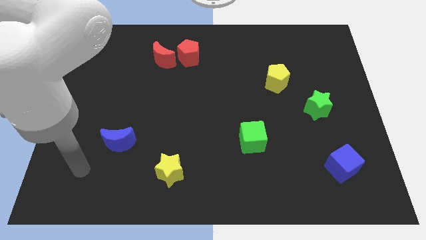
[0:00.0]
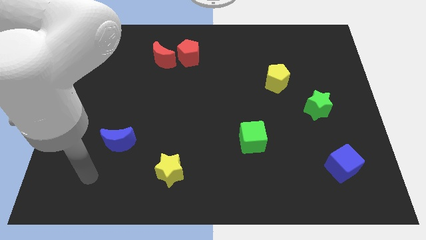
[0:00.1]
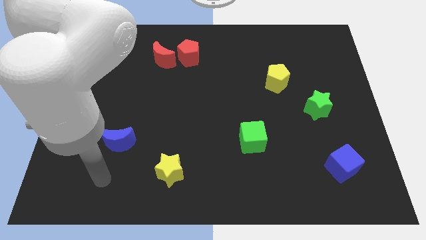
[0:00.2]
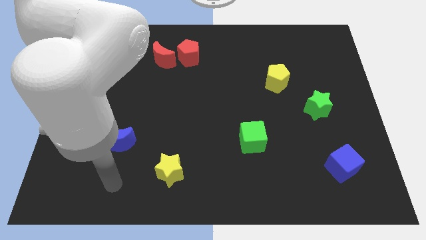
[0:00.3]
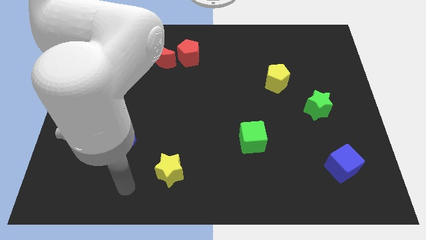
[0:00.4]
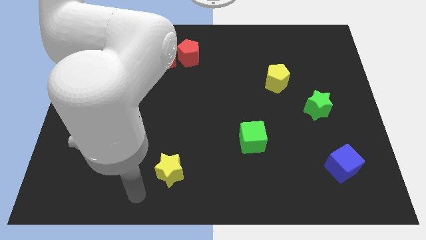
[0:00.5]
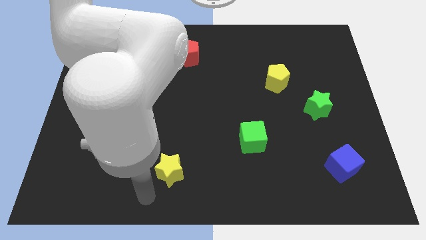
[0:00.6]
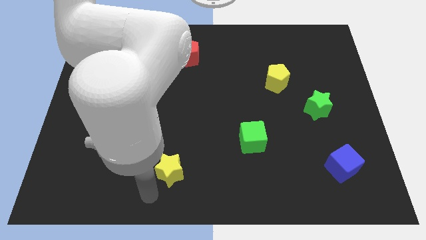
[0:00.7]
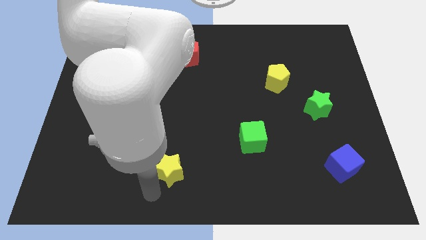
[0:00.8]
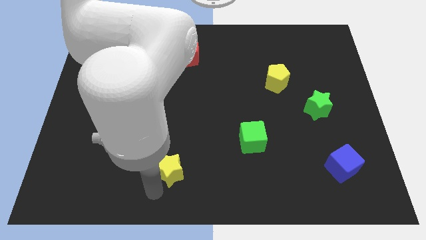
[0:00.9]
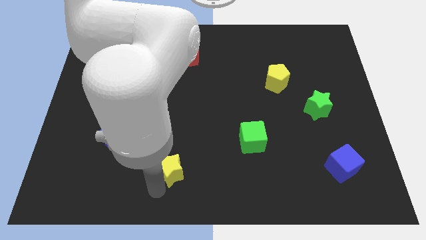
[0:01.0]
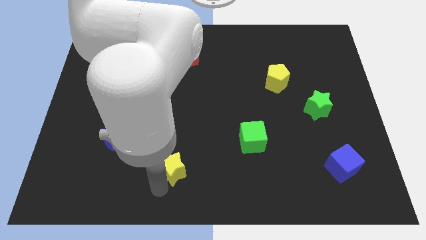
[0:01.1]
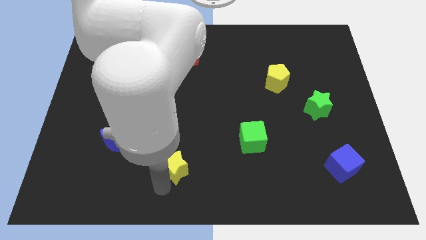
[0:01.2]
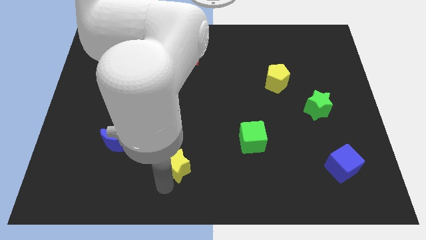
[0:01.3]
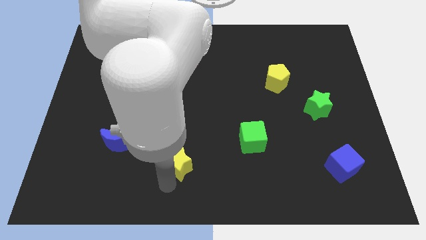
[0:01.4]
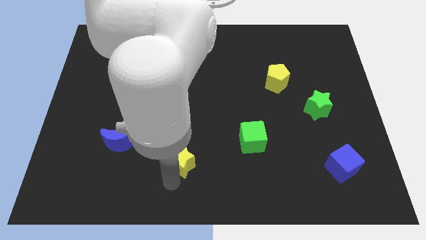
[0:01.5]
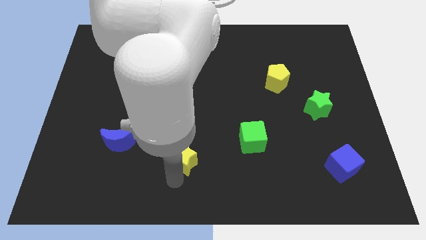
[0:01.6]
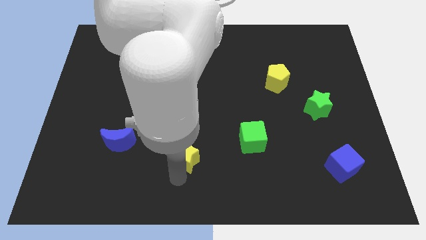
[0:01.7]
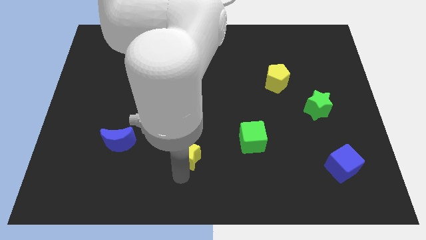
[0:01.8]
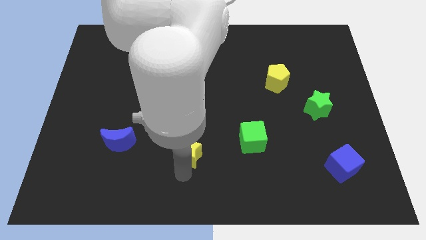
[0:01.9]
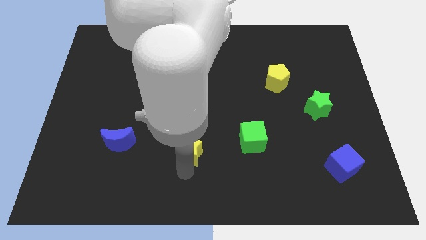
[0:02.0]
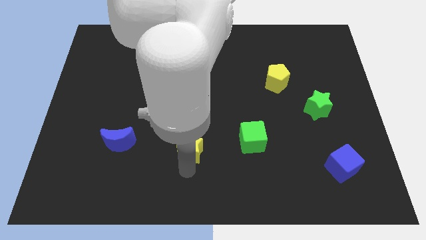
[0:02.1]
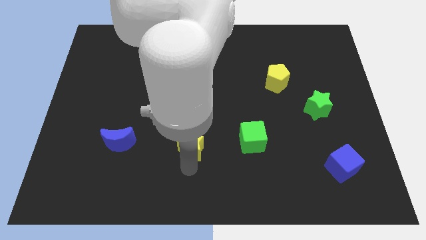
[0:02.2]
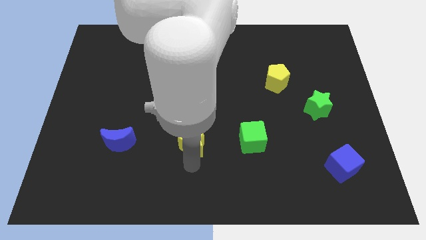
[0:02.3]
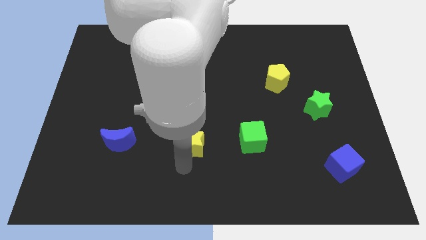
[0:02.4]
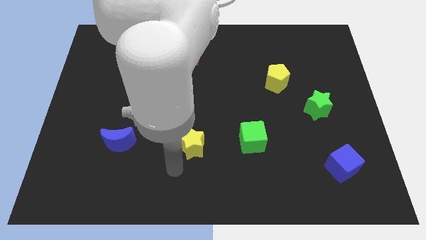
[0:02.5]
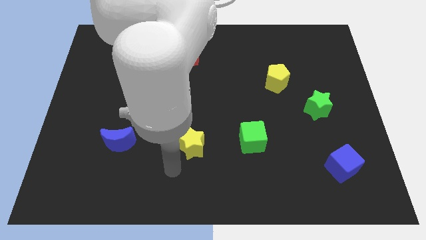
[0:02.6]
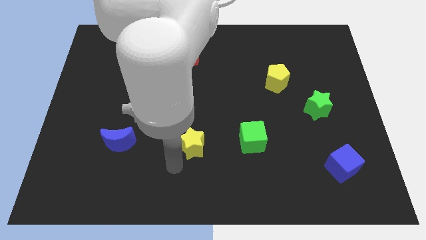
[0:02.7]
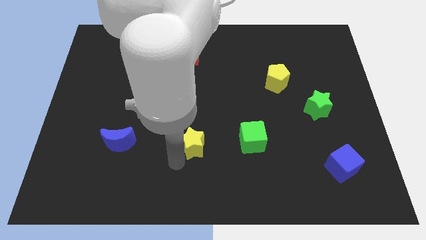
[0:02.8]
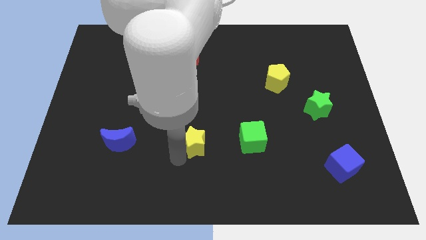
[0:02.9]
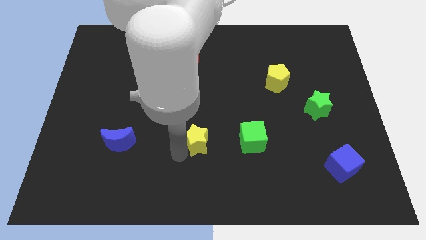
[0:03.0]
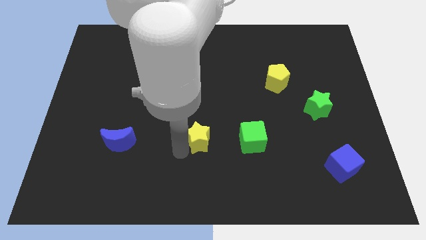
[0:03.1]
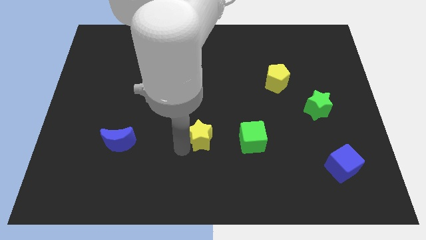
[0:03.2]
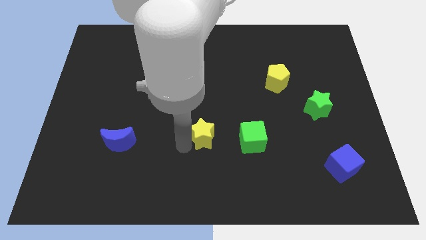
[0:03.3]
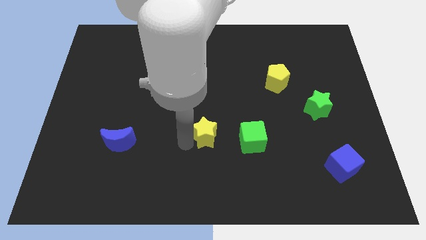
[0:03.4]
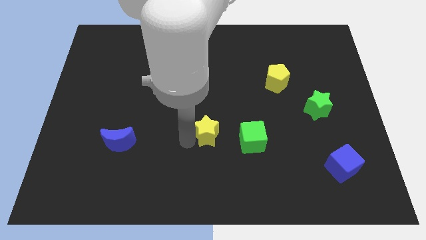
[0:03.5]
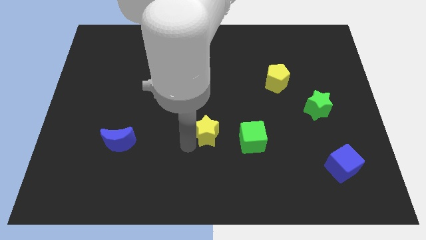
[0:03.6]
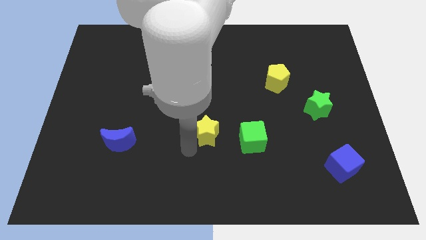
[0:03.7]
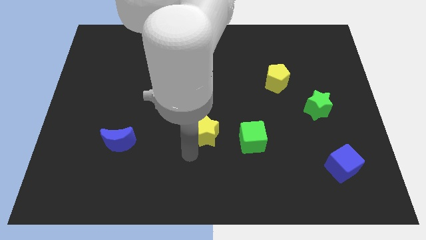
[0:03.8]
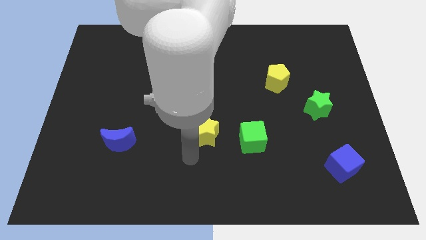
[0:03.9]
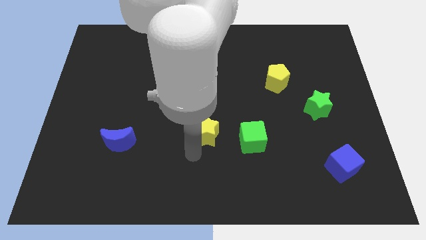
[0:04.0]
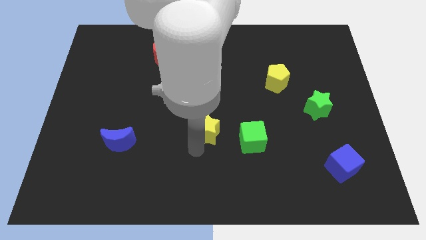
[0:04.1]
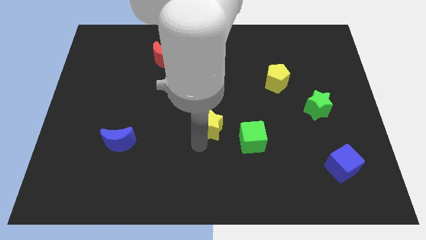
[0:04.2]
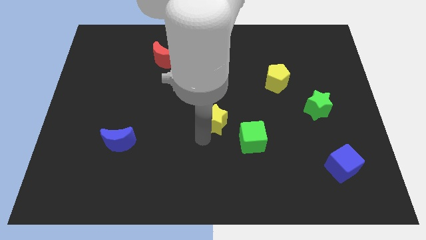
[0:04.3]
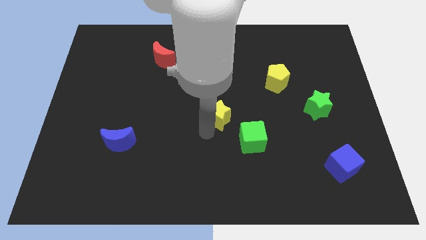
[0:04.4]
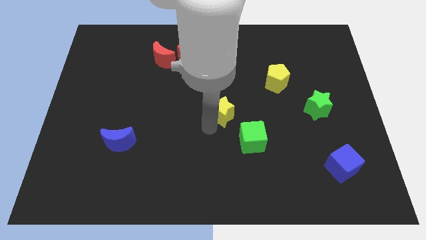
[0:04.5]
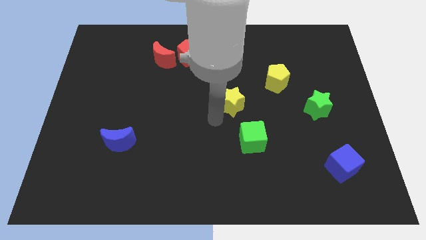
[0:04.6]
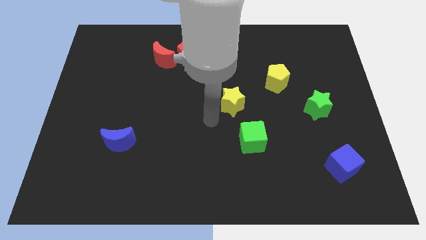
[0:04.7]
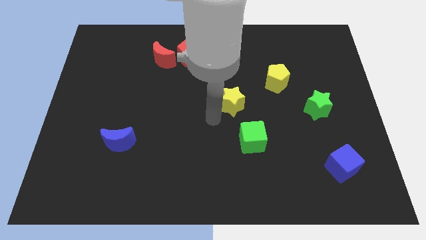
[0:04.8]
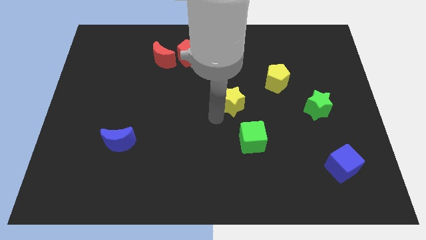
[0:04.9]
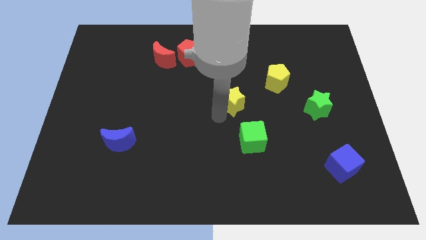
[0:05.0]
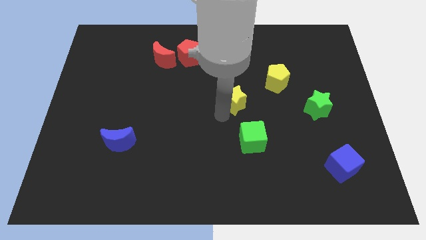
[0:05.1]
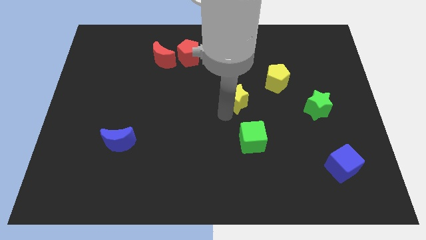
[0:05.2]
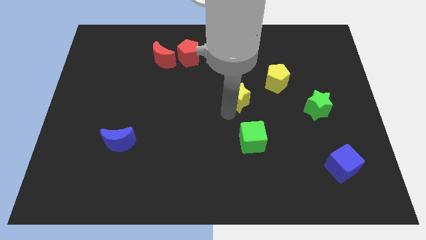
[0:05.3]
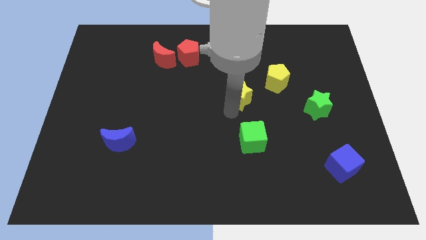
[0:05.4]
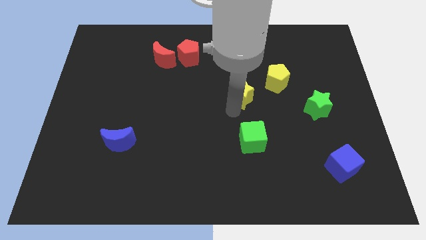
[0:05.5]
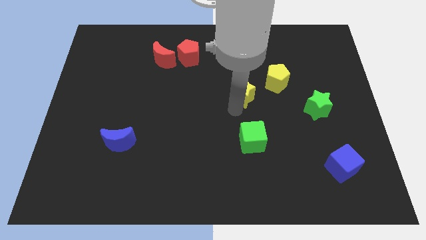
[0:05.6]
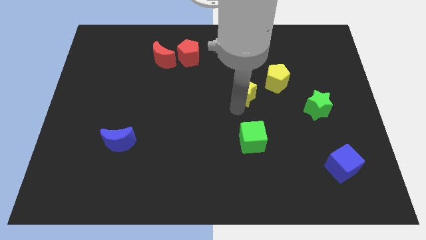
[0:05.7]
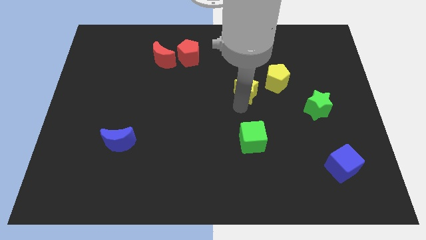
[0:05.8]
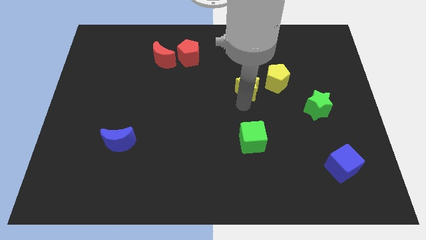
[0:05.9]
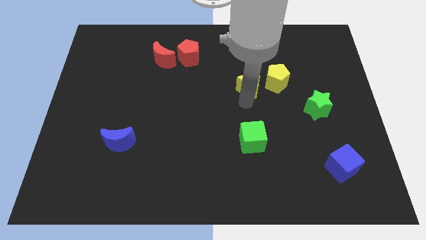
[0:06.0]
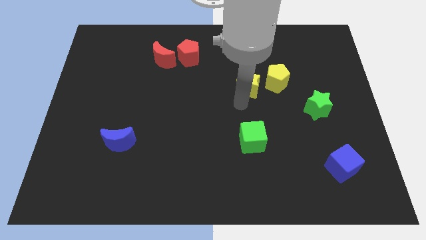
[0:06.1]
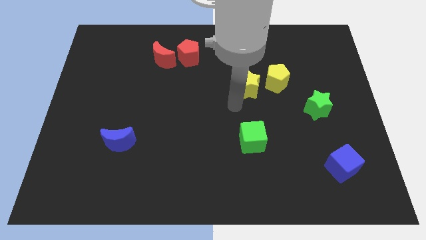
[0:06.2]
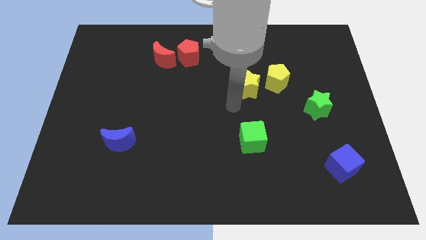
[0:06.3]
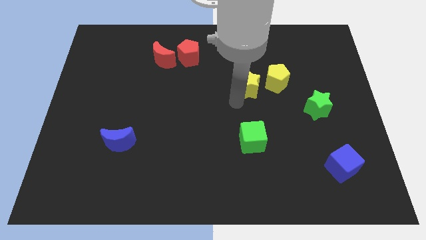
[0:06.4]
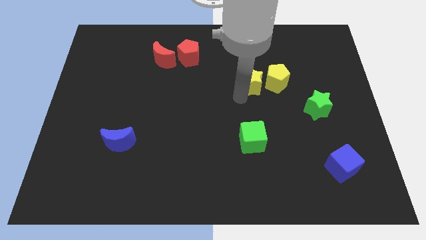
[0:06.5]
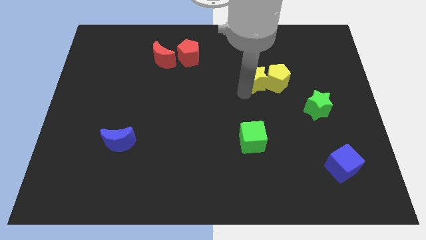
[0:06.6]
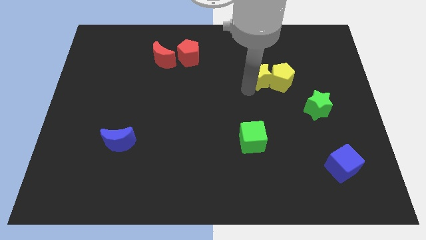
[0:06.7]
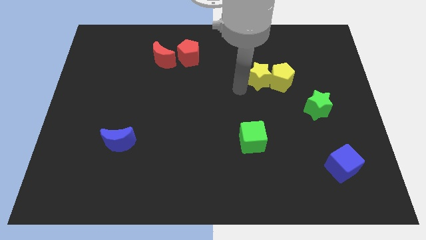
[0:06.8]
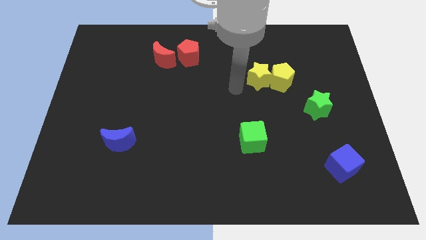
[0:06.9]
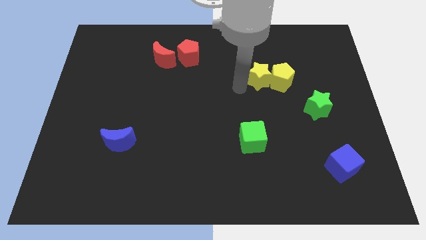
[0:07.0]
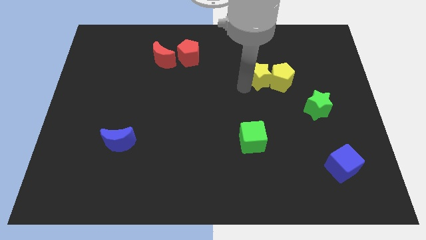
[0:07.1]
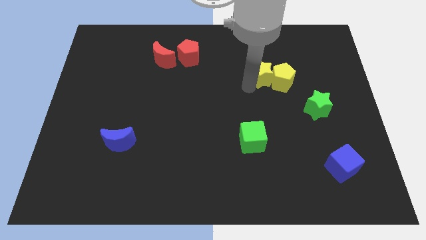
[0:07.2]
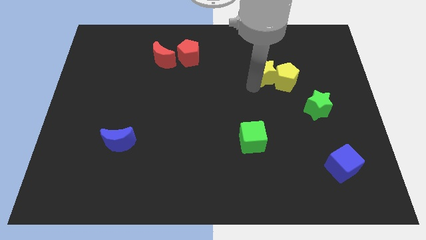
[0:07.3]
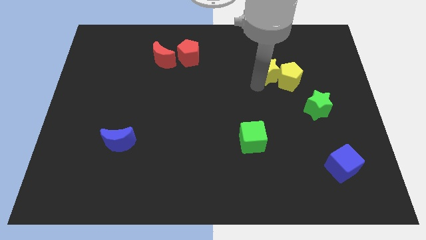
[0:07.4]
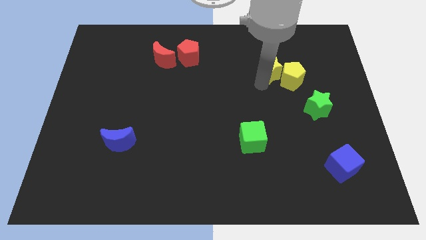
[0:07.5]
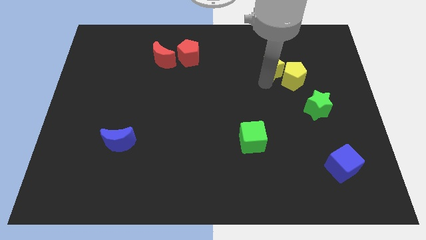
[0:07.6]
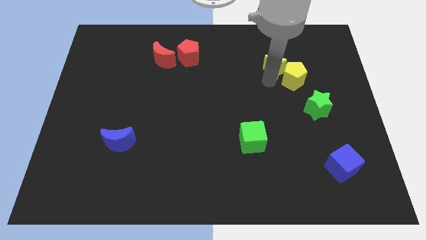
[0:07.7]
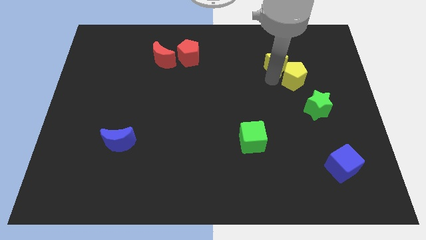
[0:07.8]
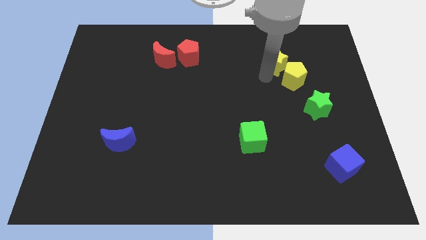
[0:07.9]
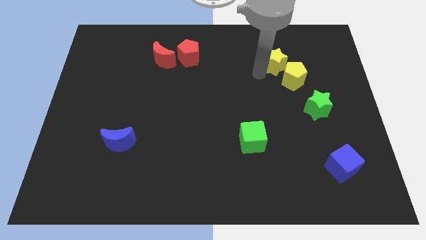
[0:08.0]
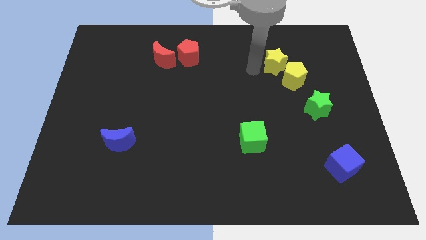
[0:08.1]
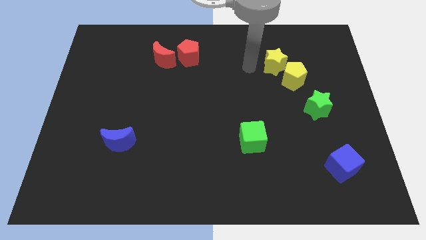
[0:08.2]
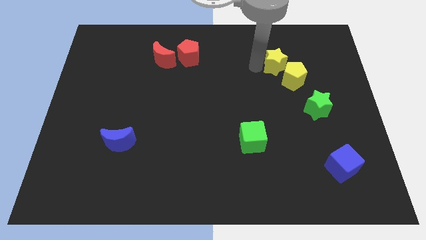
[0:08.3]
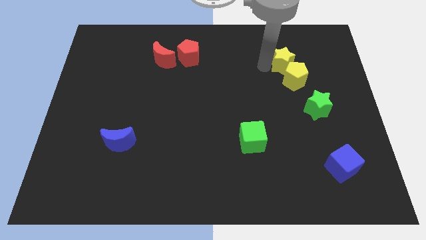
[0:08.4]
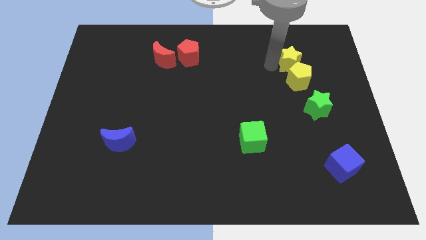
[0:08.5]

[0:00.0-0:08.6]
put the yellow star to the top right of the yellow pentagon
